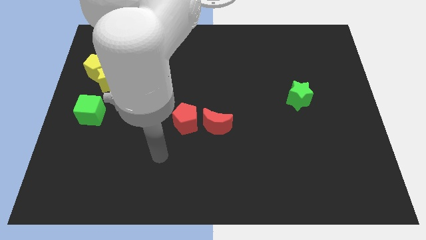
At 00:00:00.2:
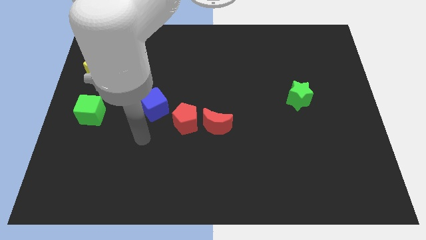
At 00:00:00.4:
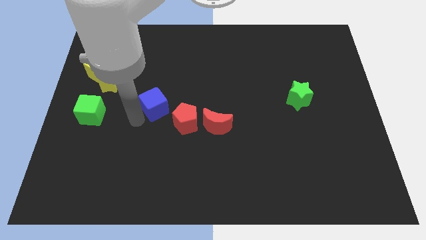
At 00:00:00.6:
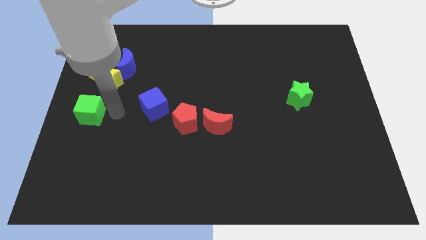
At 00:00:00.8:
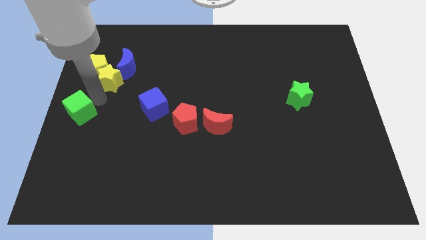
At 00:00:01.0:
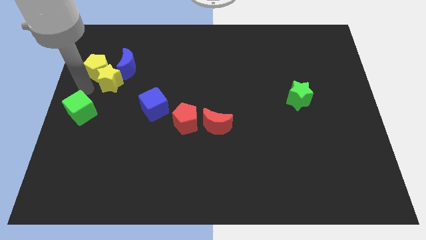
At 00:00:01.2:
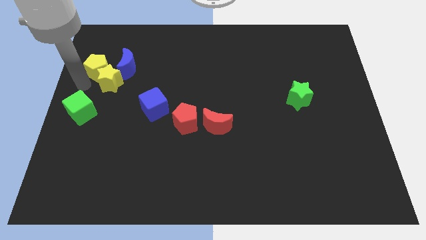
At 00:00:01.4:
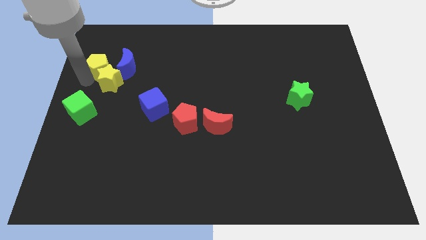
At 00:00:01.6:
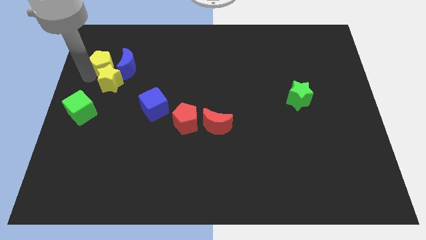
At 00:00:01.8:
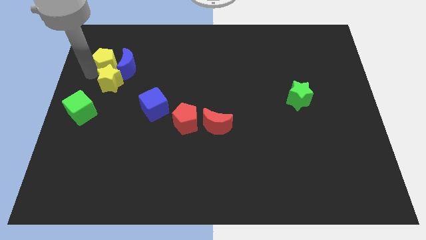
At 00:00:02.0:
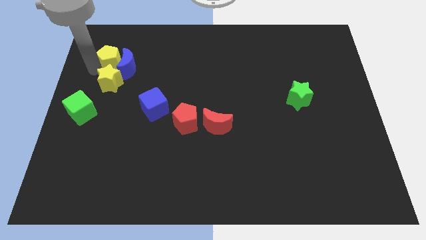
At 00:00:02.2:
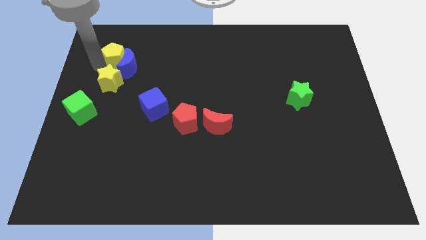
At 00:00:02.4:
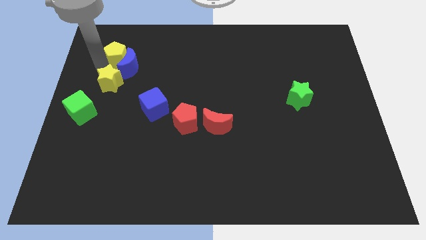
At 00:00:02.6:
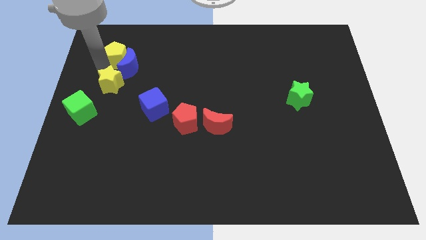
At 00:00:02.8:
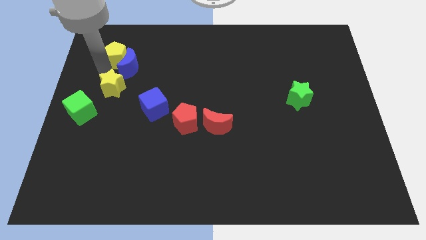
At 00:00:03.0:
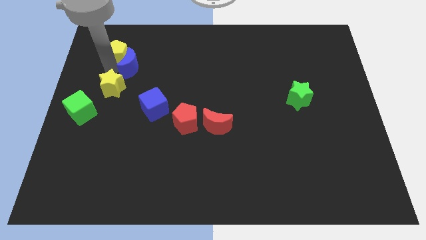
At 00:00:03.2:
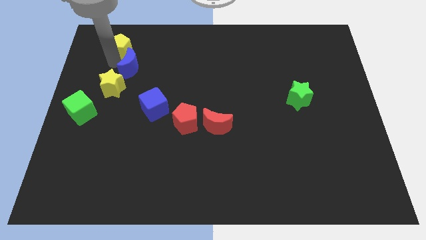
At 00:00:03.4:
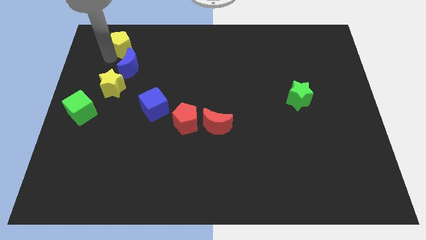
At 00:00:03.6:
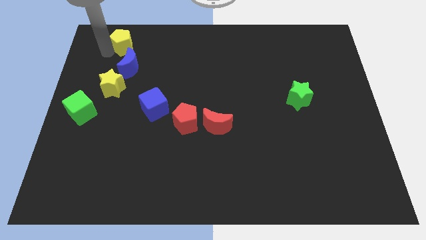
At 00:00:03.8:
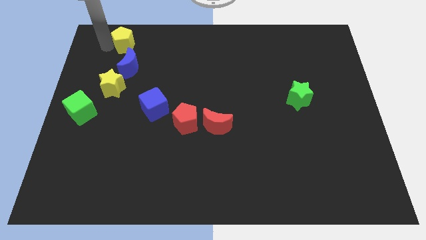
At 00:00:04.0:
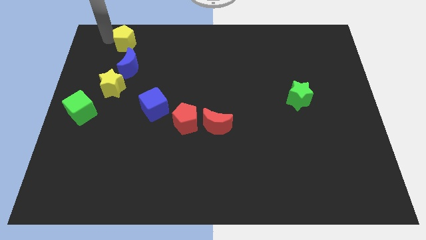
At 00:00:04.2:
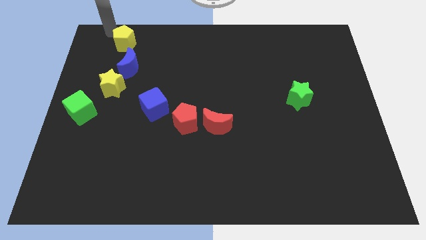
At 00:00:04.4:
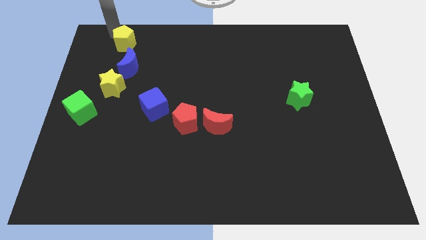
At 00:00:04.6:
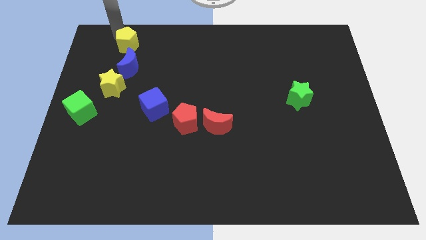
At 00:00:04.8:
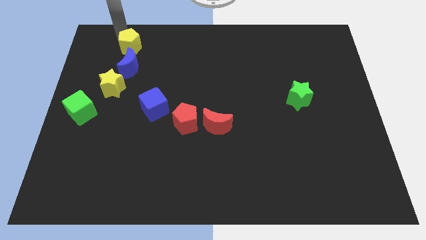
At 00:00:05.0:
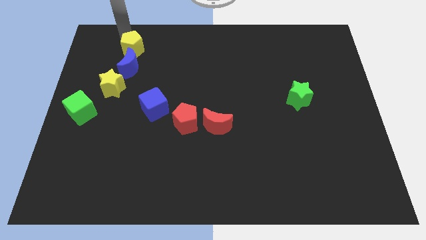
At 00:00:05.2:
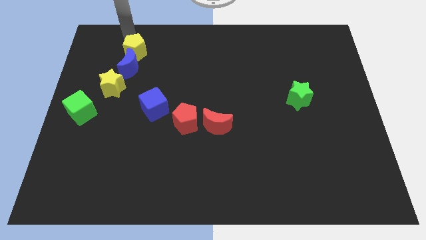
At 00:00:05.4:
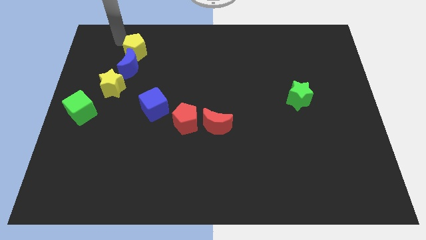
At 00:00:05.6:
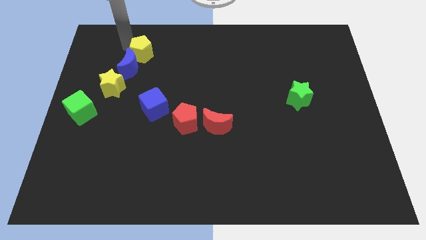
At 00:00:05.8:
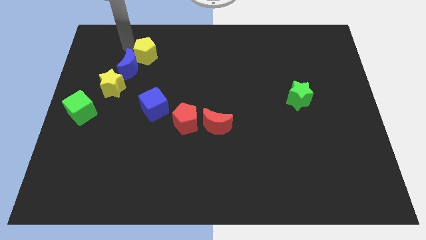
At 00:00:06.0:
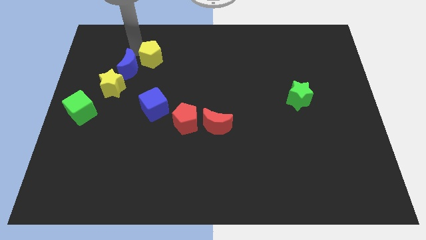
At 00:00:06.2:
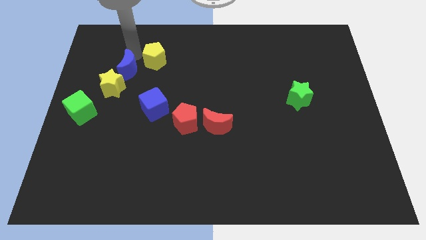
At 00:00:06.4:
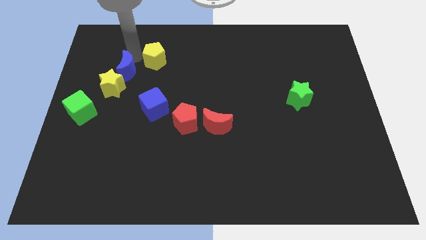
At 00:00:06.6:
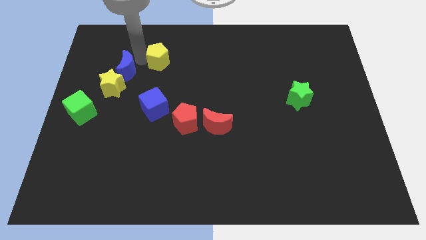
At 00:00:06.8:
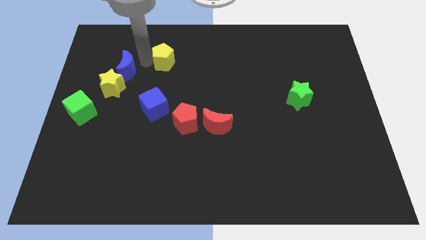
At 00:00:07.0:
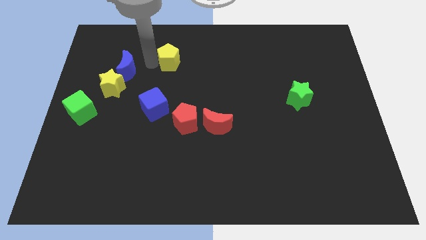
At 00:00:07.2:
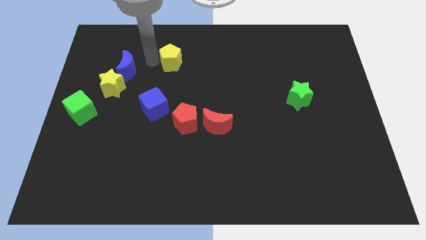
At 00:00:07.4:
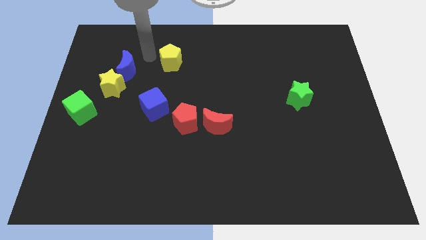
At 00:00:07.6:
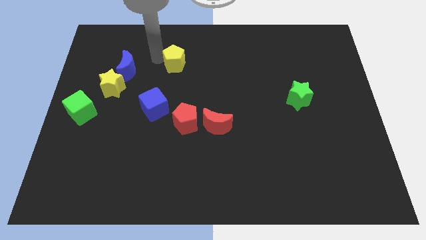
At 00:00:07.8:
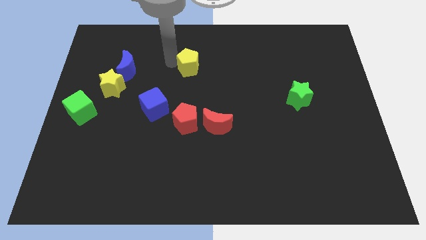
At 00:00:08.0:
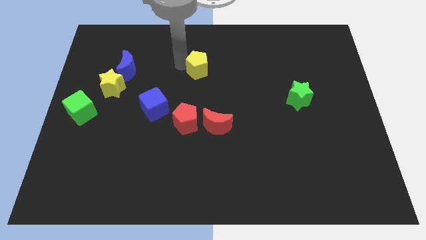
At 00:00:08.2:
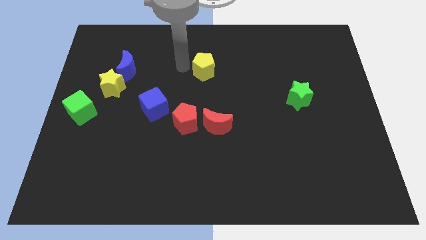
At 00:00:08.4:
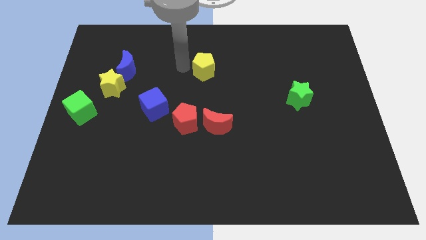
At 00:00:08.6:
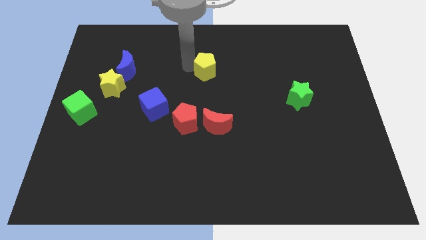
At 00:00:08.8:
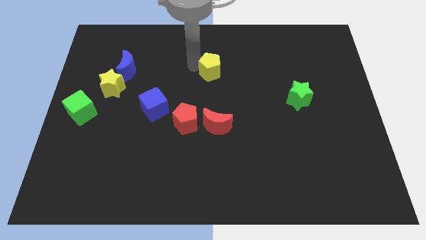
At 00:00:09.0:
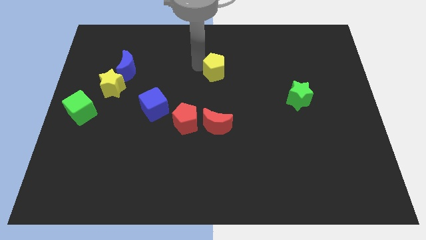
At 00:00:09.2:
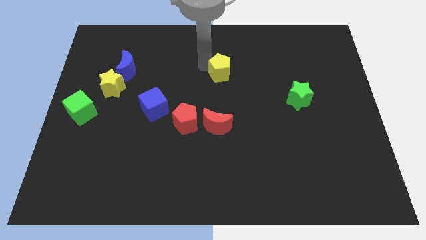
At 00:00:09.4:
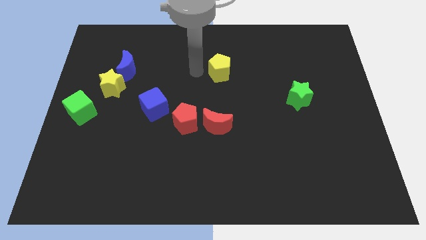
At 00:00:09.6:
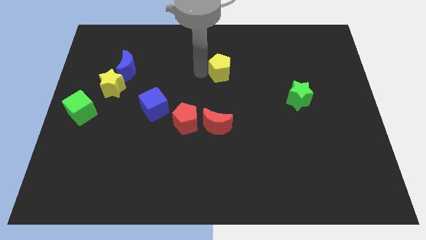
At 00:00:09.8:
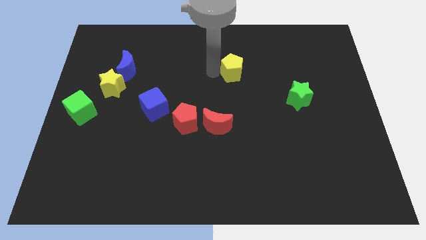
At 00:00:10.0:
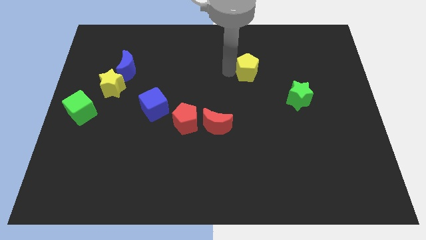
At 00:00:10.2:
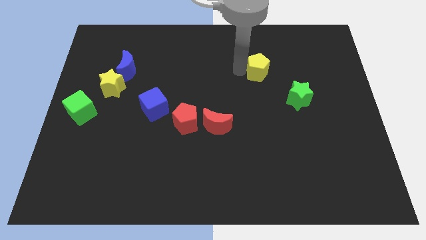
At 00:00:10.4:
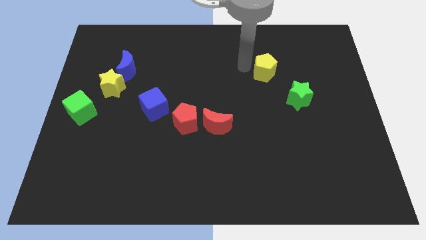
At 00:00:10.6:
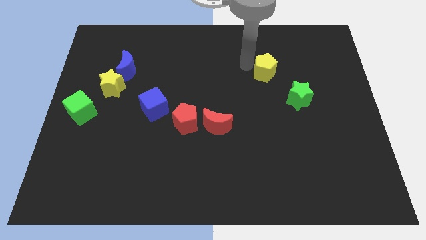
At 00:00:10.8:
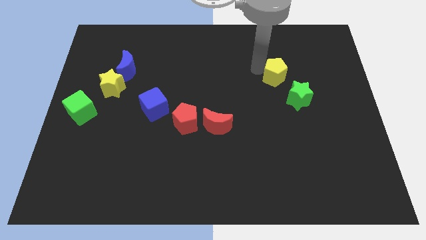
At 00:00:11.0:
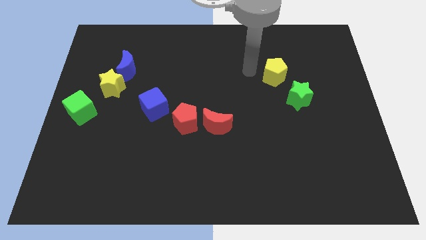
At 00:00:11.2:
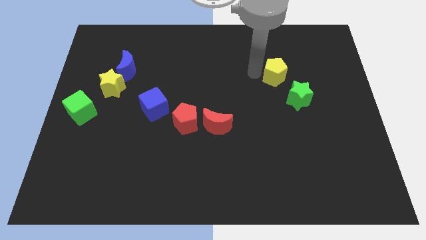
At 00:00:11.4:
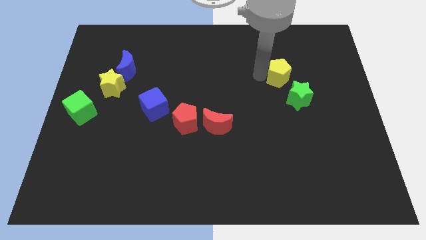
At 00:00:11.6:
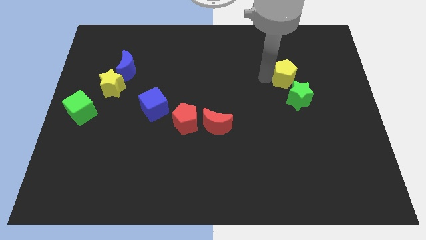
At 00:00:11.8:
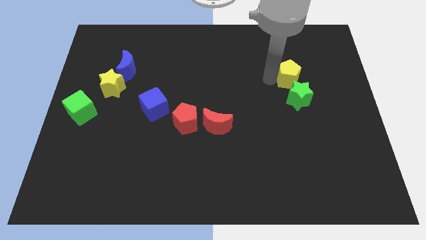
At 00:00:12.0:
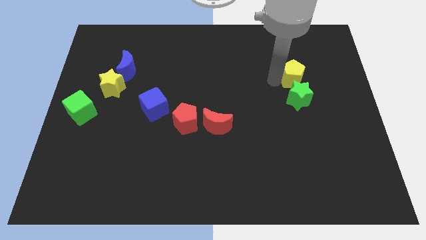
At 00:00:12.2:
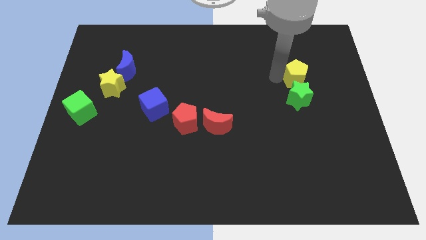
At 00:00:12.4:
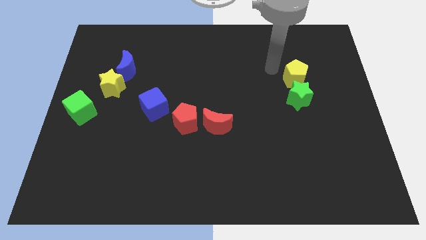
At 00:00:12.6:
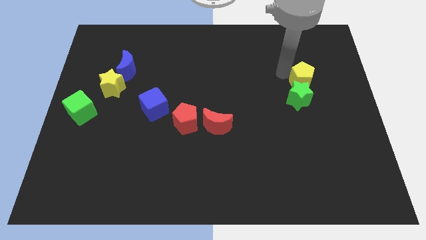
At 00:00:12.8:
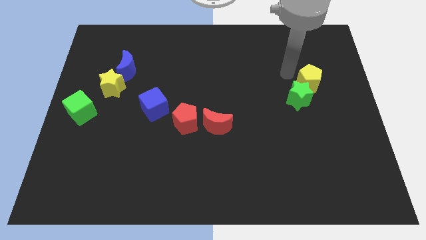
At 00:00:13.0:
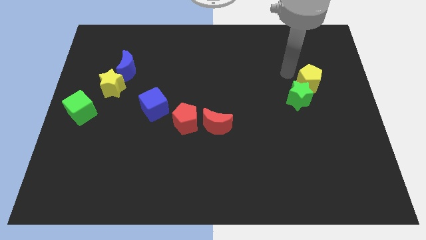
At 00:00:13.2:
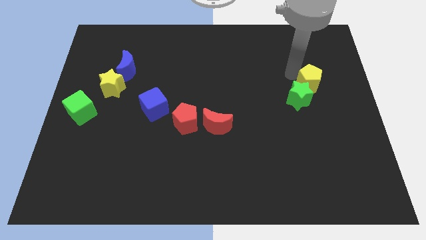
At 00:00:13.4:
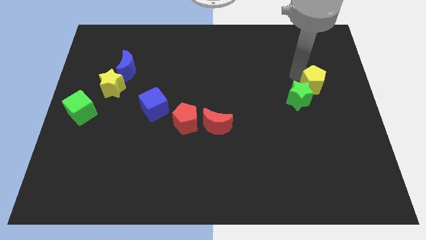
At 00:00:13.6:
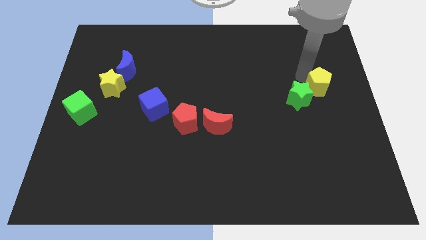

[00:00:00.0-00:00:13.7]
put the yellow pentagon to the right side of the board
